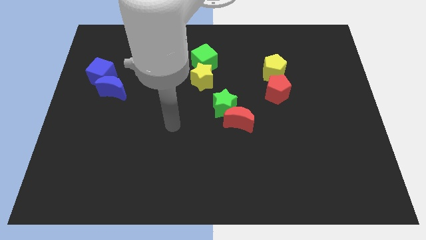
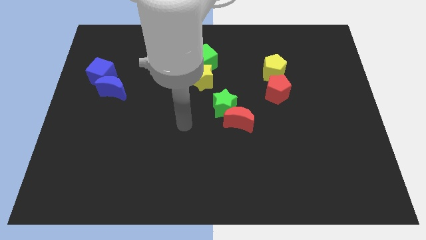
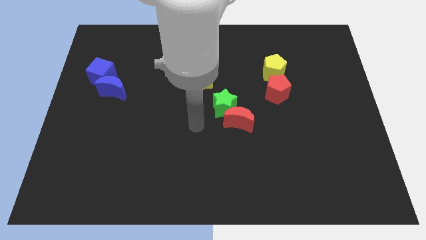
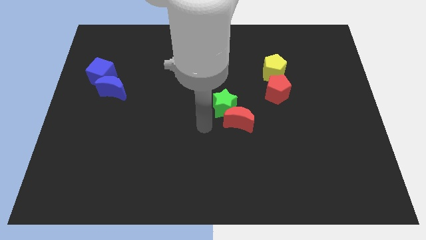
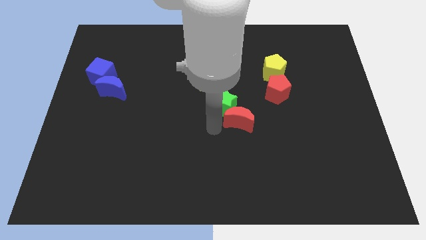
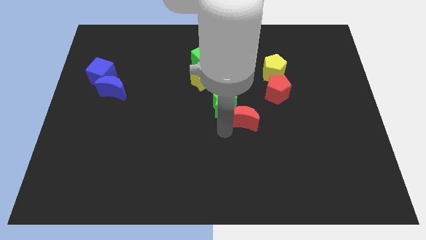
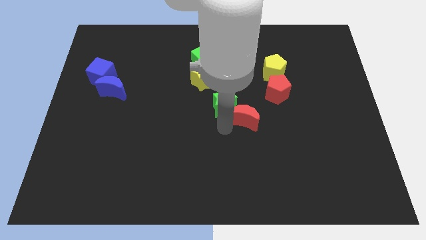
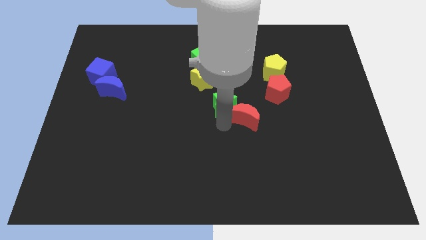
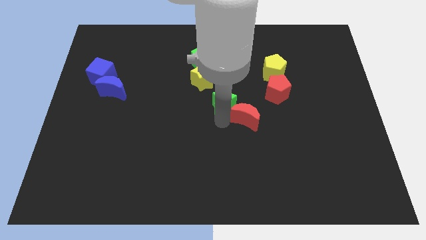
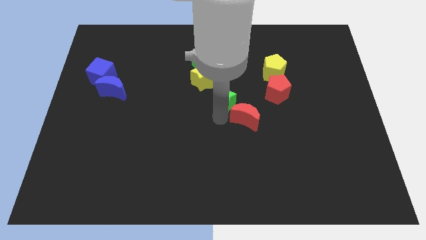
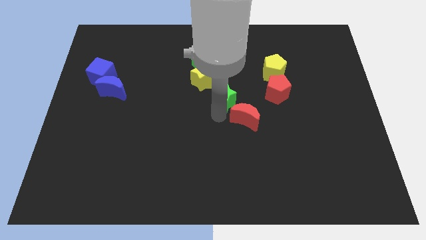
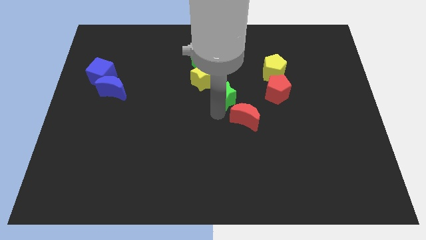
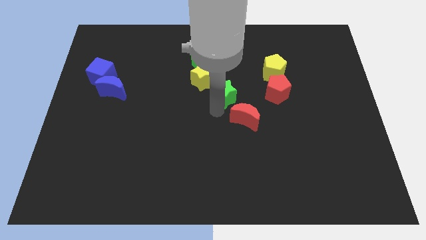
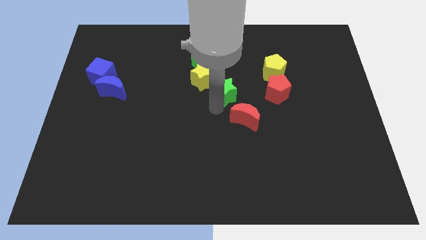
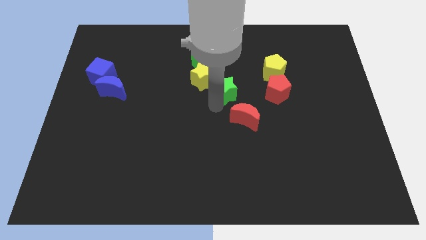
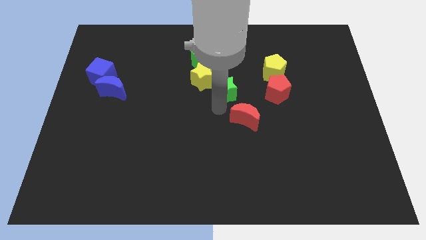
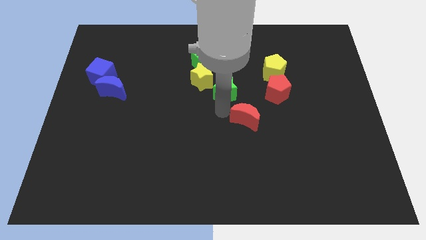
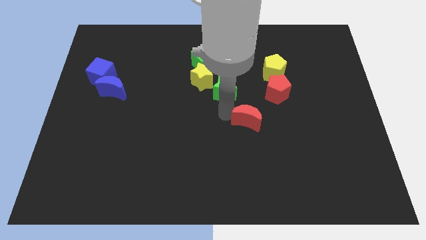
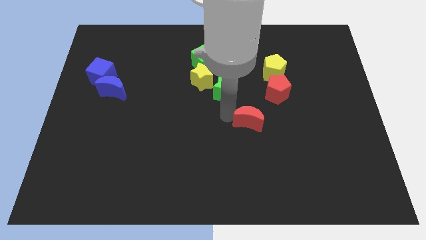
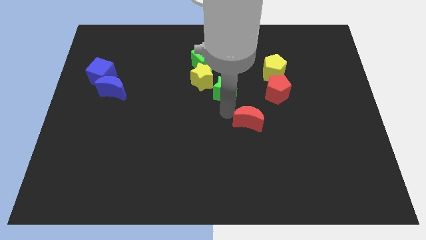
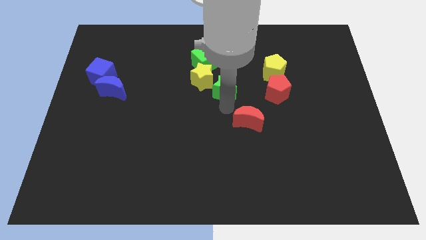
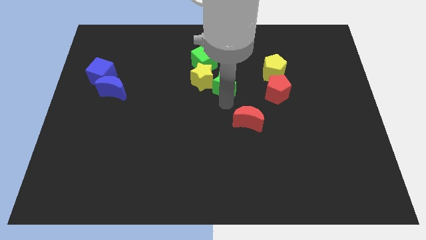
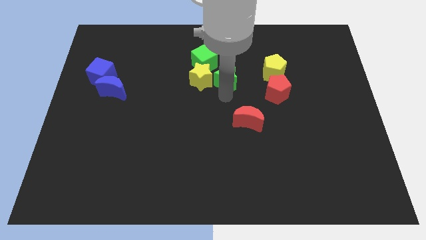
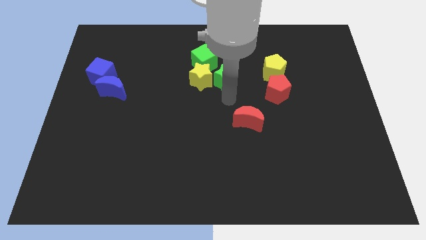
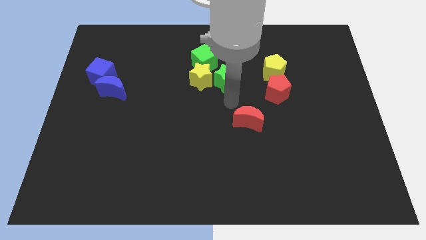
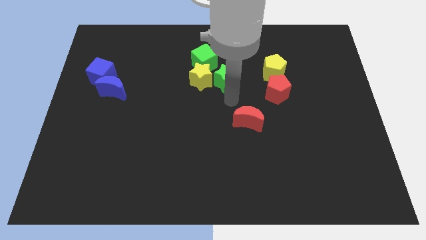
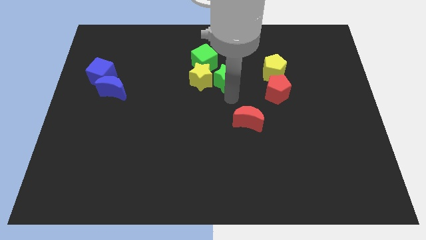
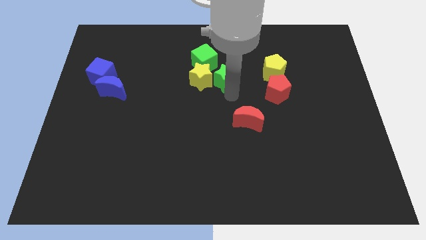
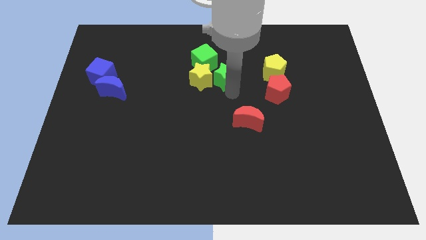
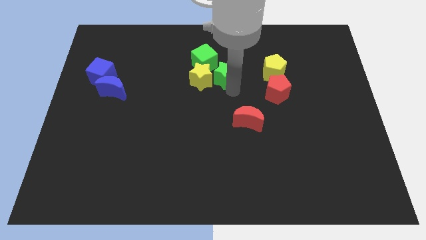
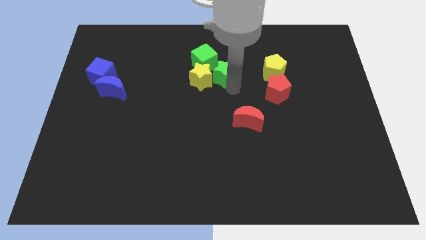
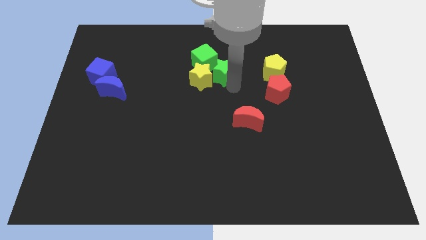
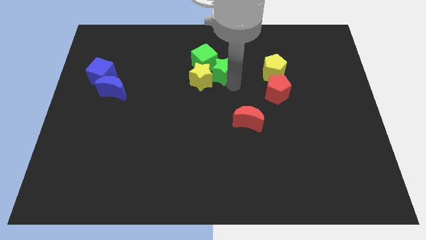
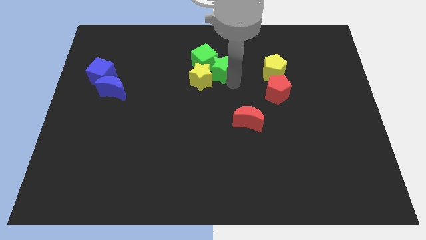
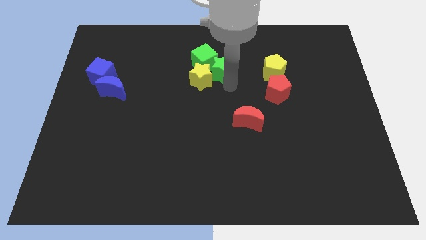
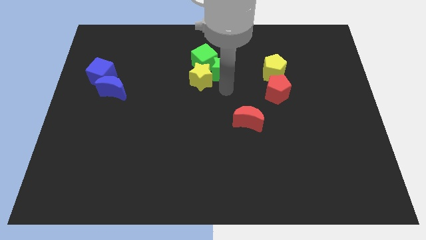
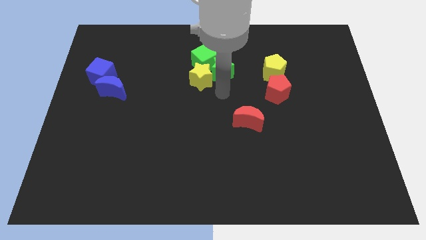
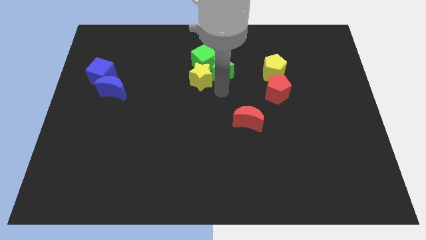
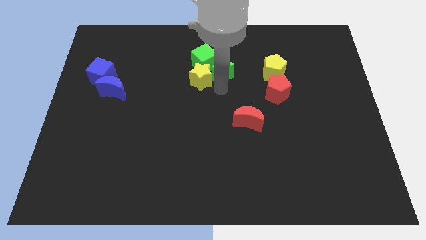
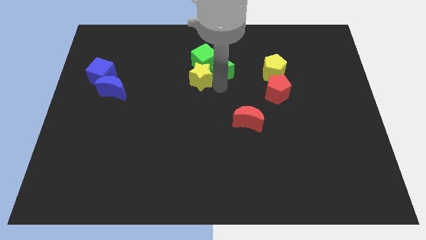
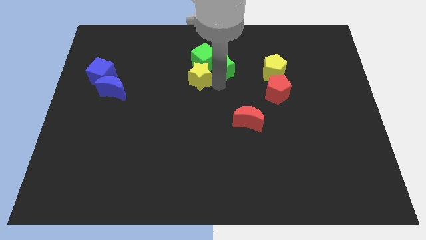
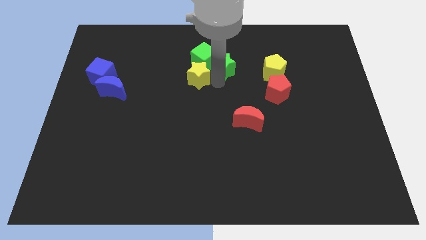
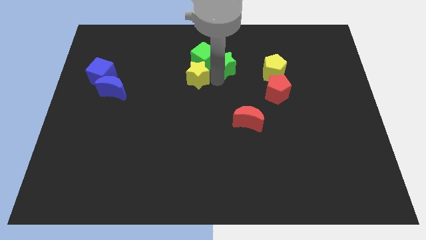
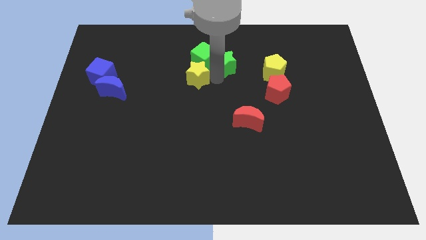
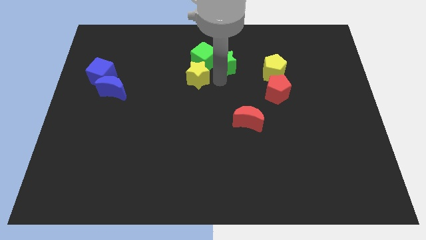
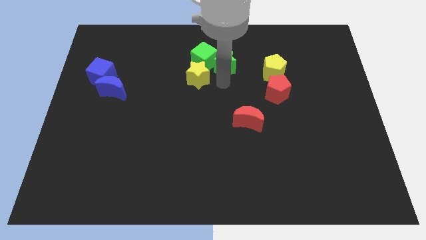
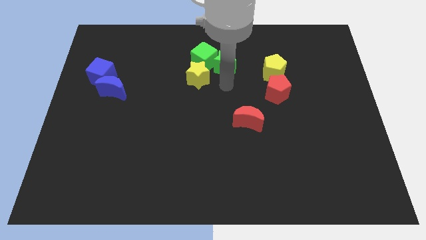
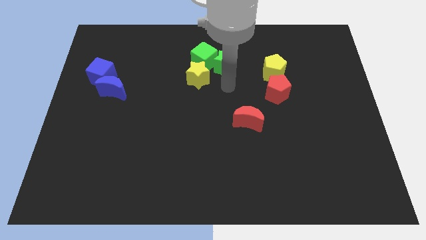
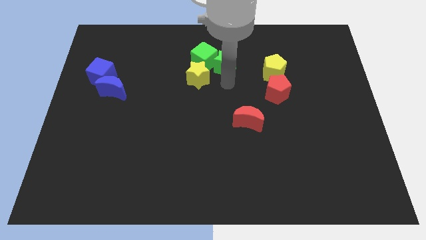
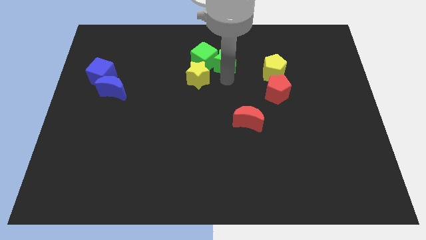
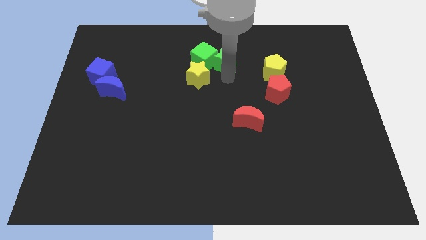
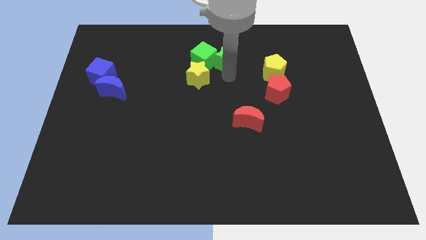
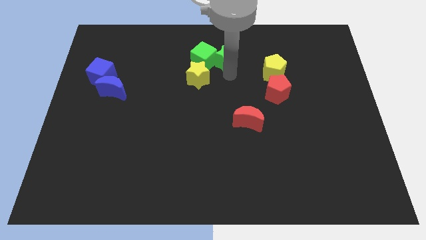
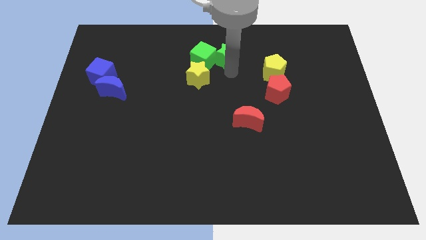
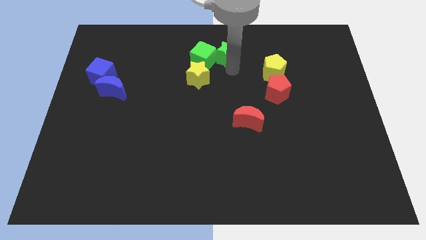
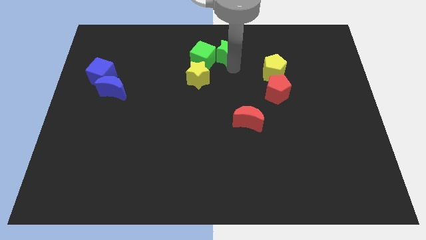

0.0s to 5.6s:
move the green star to the top

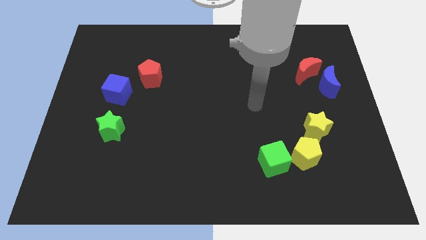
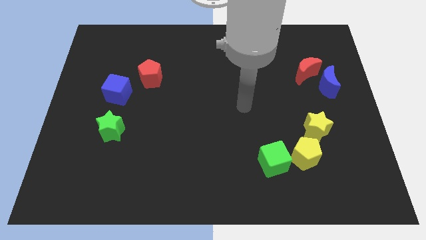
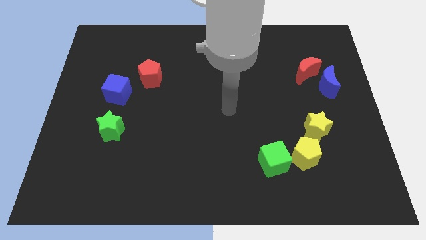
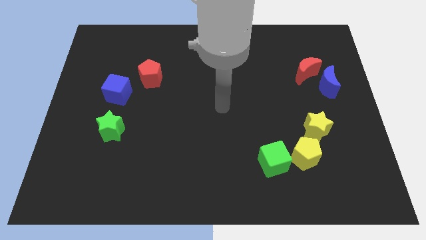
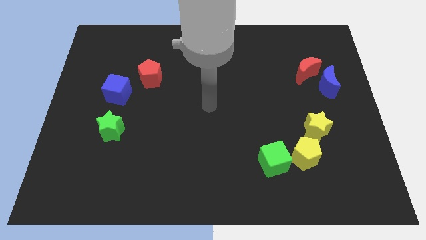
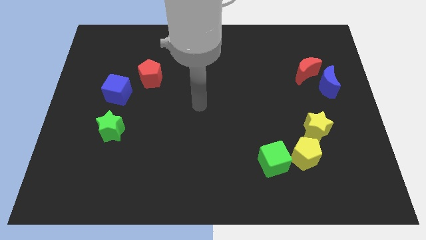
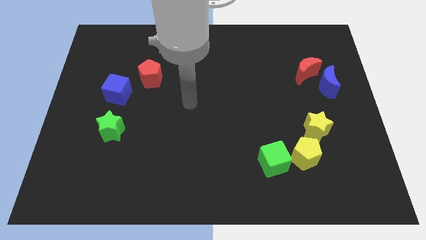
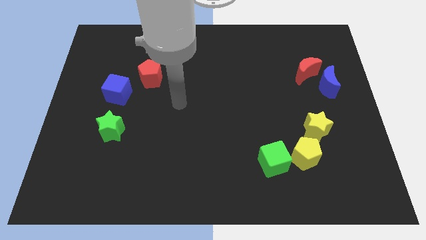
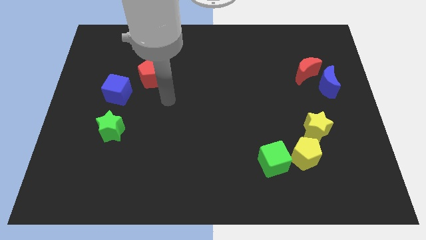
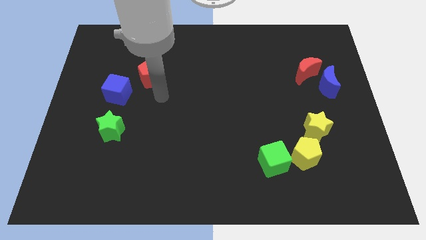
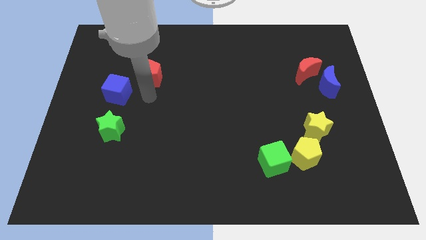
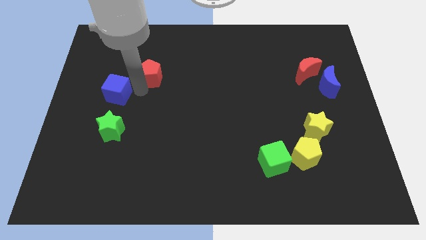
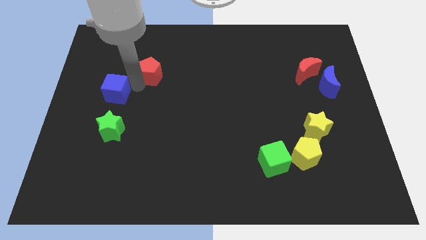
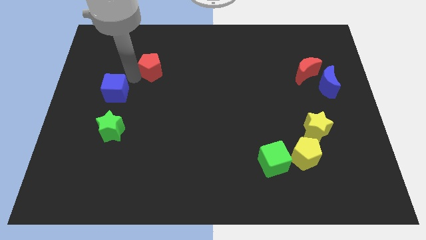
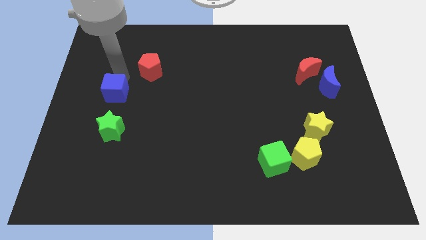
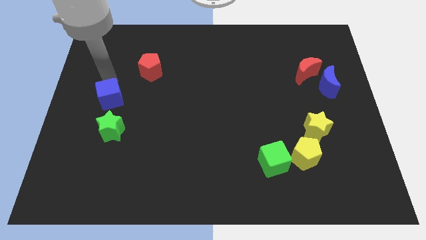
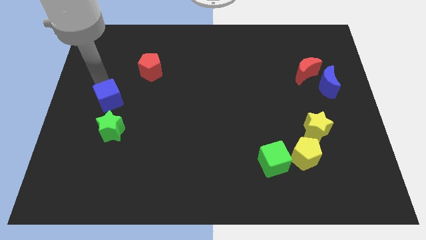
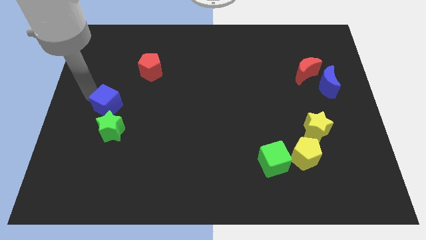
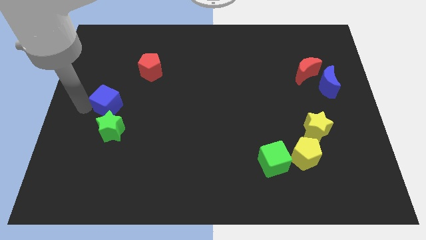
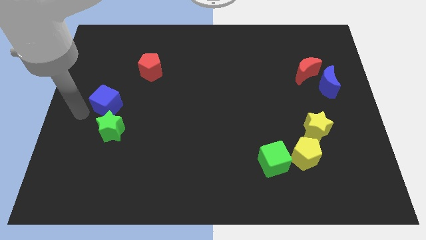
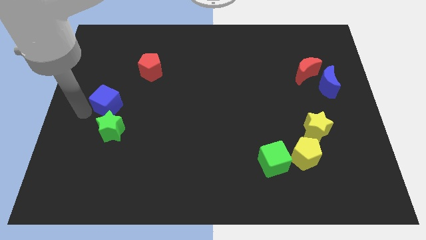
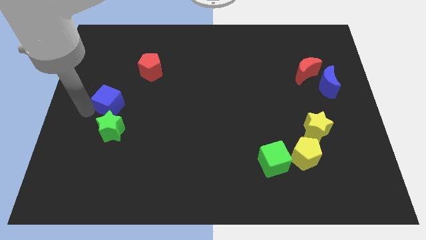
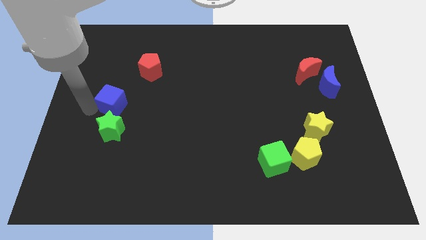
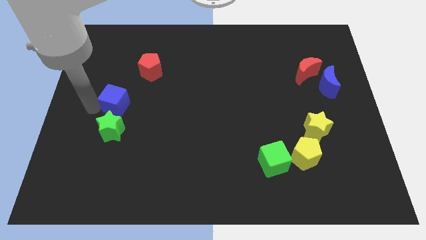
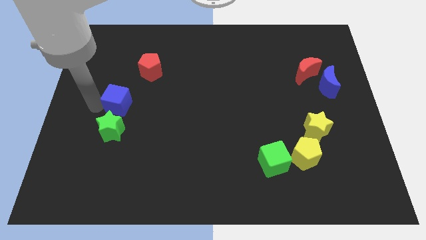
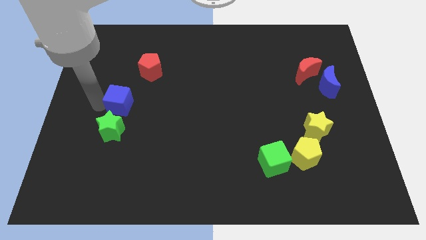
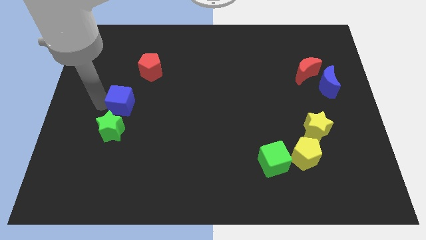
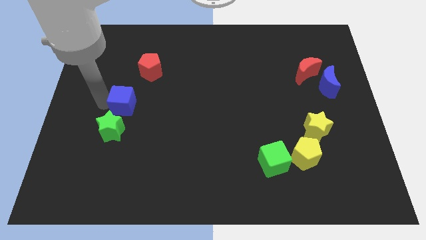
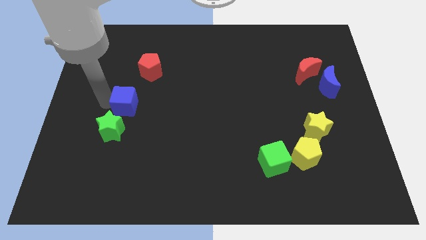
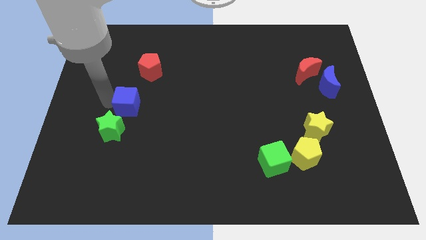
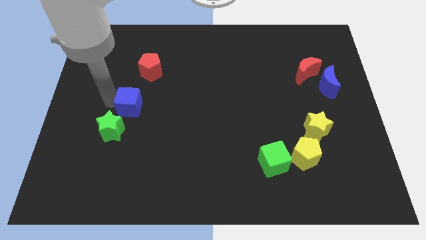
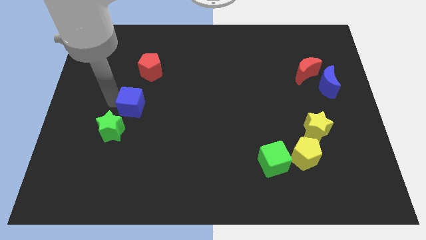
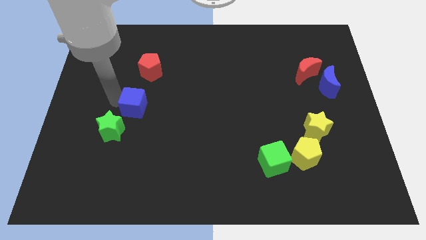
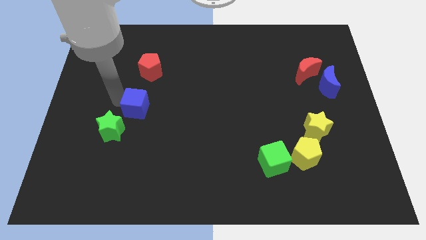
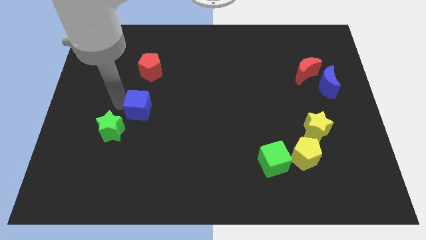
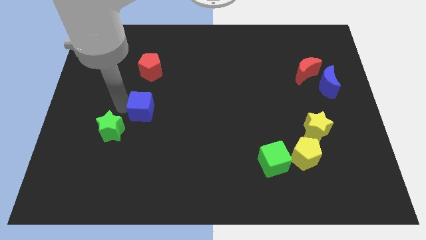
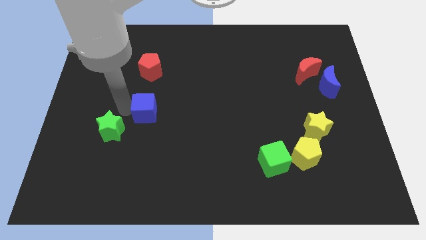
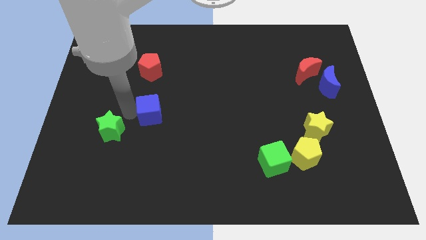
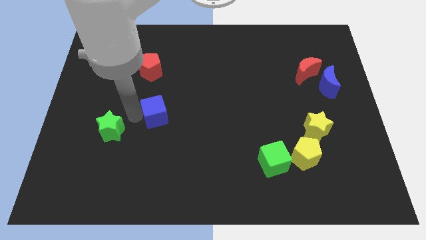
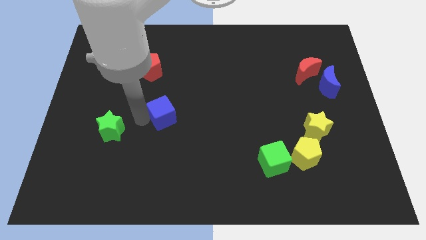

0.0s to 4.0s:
move the blue cube to the middle of the board
